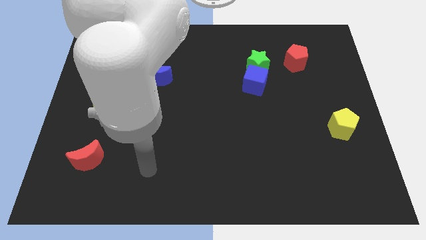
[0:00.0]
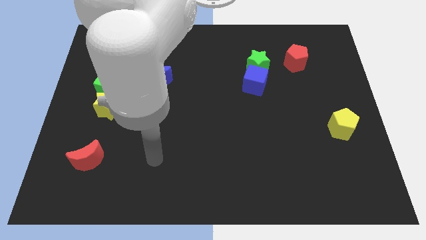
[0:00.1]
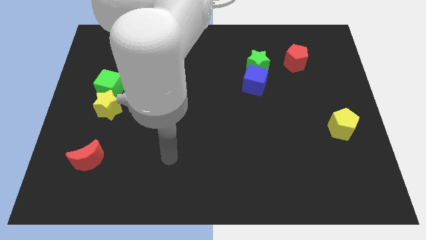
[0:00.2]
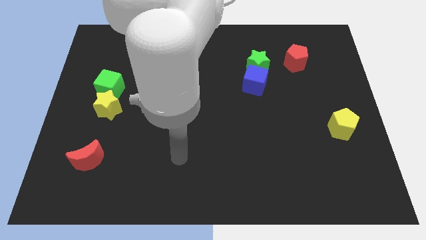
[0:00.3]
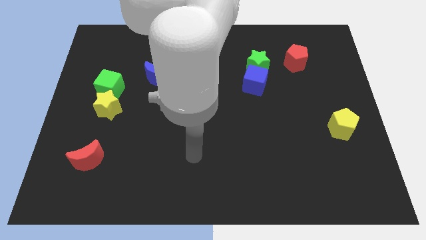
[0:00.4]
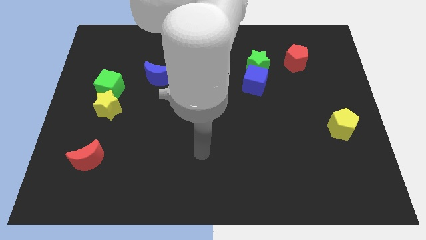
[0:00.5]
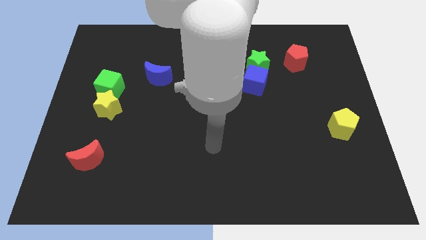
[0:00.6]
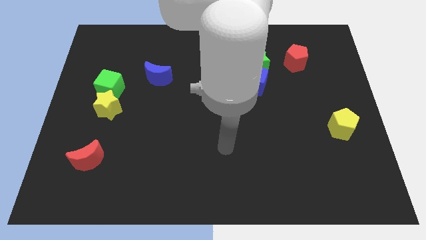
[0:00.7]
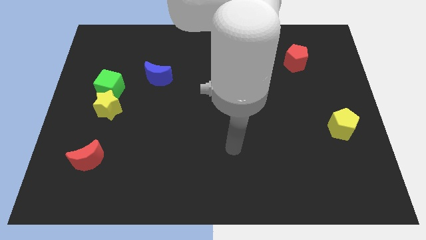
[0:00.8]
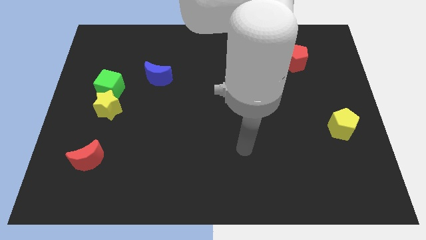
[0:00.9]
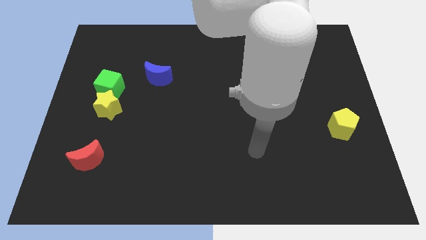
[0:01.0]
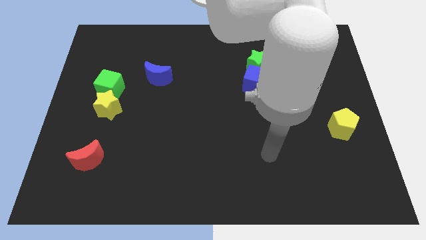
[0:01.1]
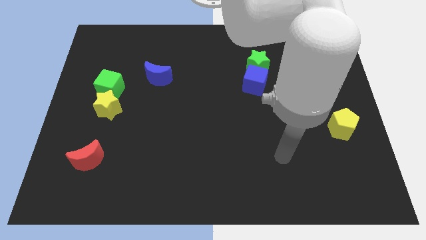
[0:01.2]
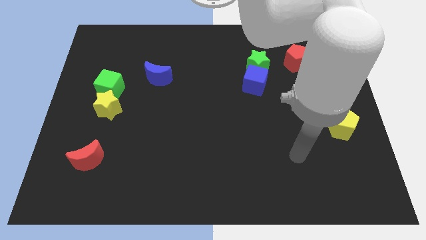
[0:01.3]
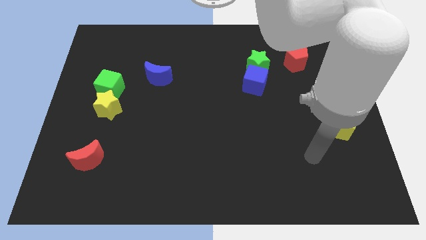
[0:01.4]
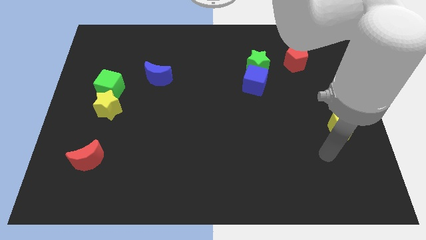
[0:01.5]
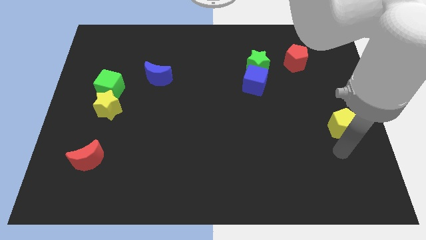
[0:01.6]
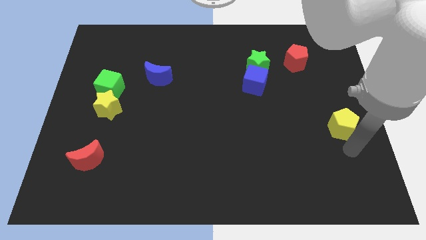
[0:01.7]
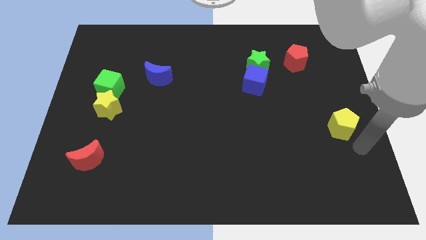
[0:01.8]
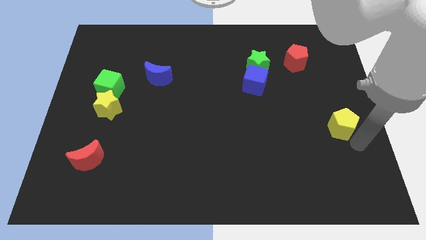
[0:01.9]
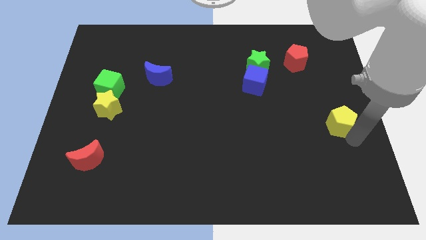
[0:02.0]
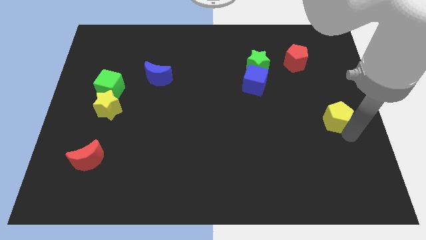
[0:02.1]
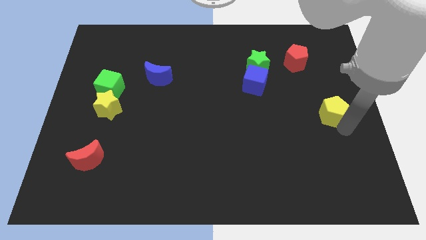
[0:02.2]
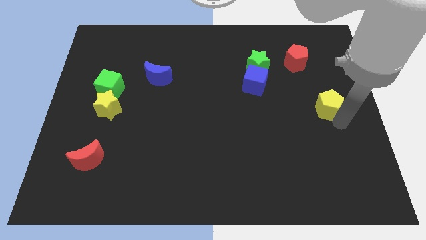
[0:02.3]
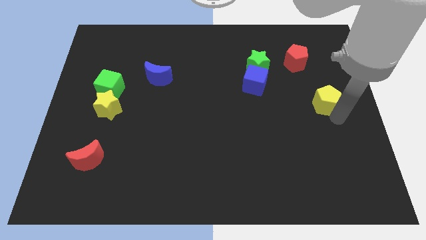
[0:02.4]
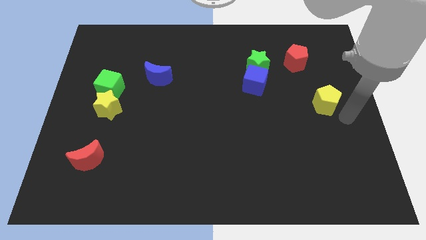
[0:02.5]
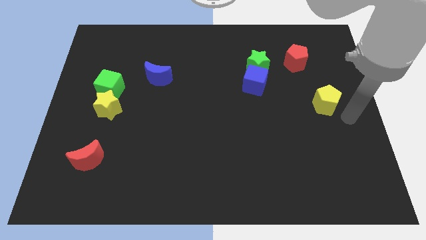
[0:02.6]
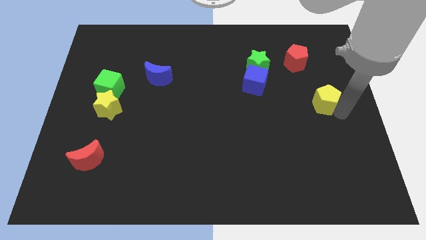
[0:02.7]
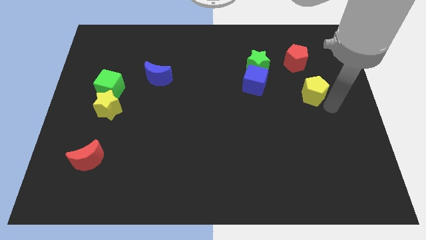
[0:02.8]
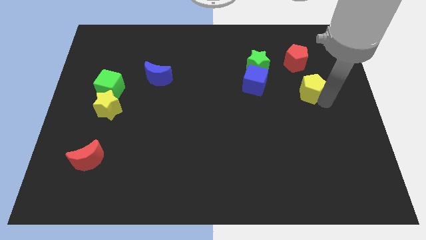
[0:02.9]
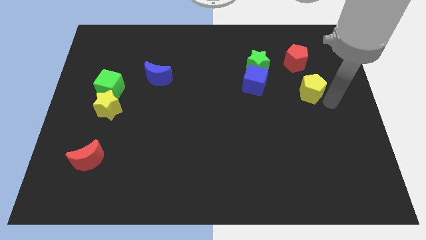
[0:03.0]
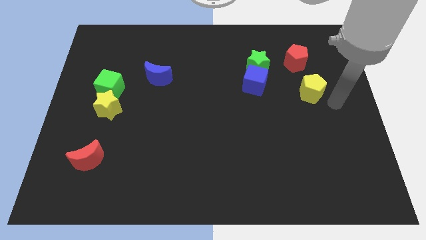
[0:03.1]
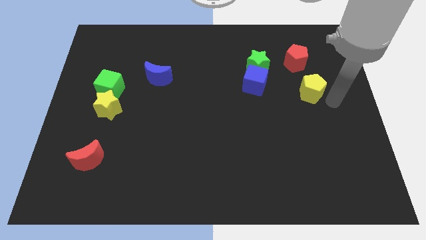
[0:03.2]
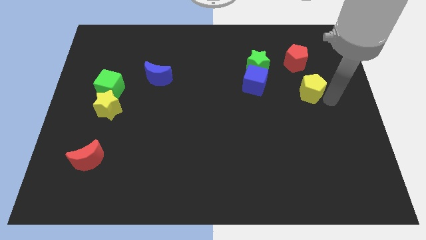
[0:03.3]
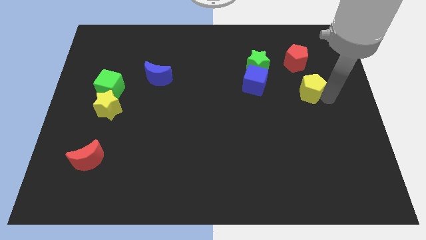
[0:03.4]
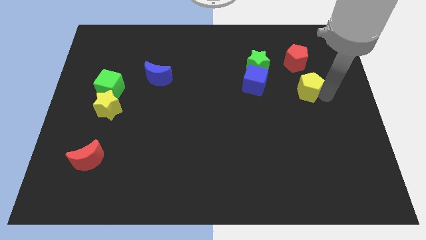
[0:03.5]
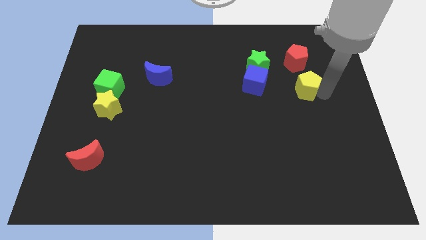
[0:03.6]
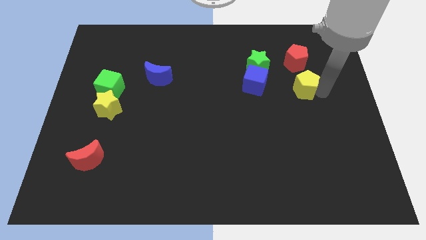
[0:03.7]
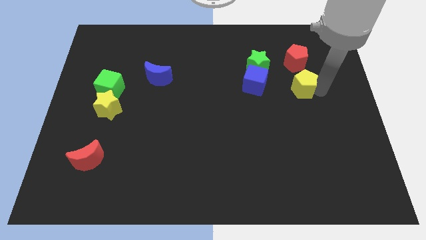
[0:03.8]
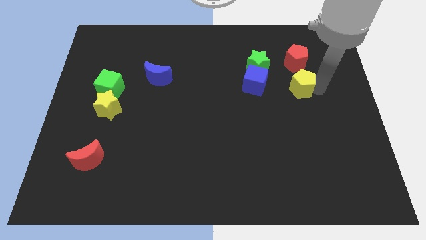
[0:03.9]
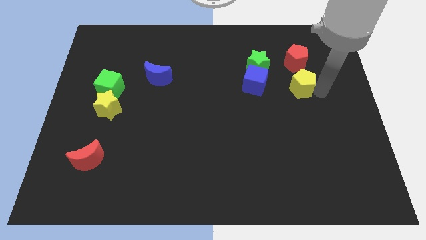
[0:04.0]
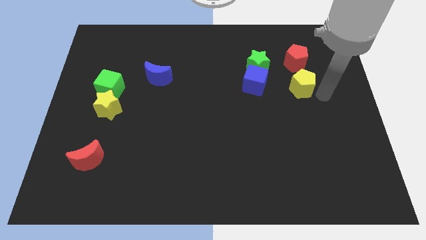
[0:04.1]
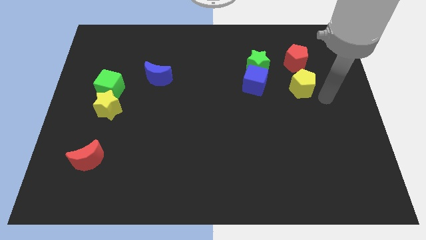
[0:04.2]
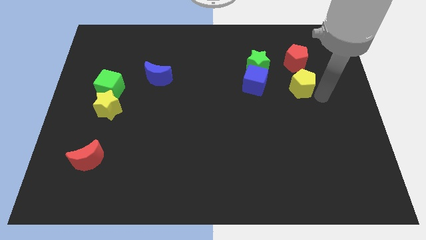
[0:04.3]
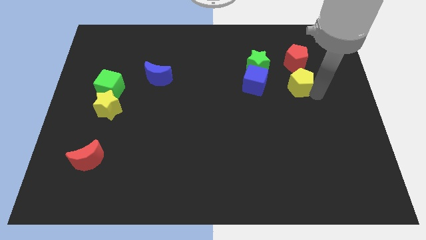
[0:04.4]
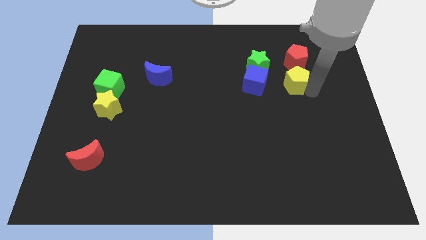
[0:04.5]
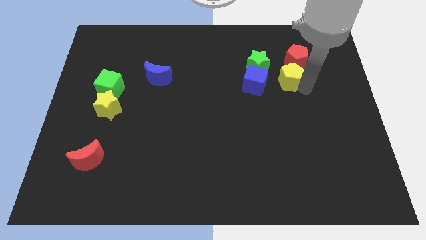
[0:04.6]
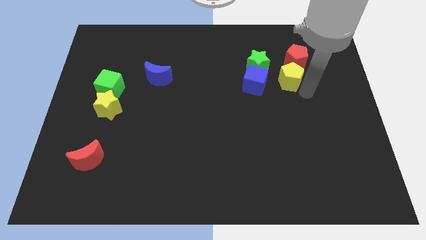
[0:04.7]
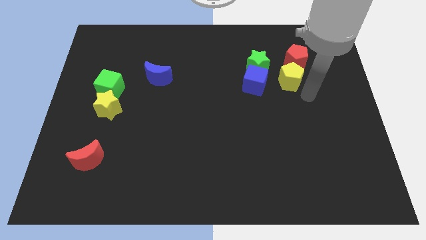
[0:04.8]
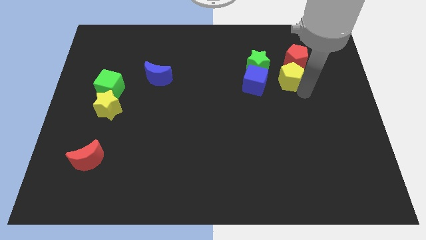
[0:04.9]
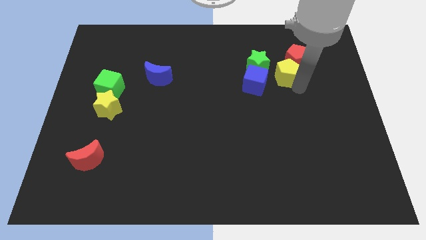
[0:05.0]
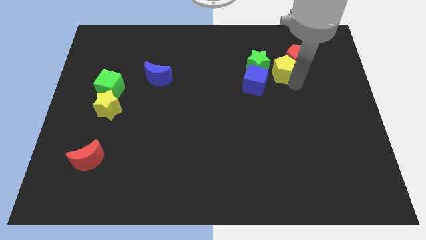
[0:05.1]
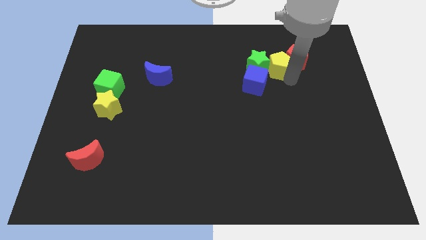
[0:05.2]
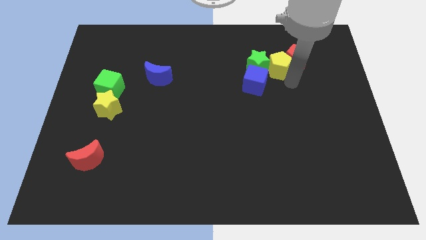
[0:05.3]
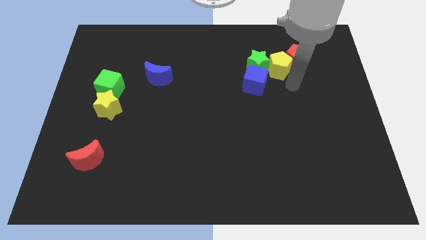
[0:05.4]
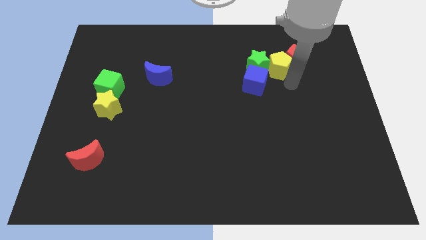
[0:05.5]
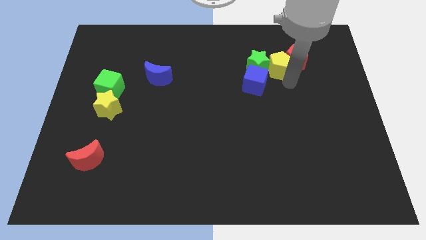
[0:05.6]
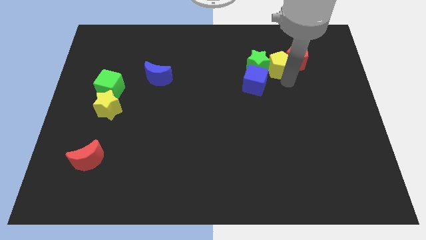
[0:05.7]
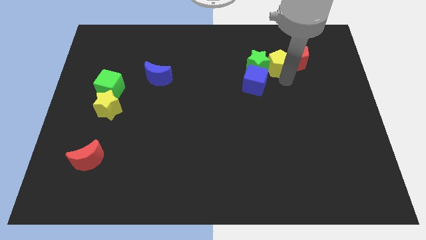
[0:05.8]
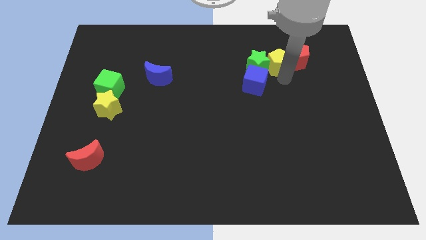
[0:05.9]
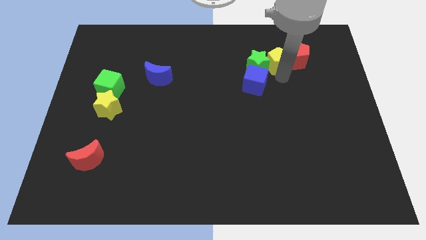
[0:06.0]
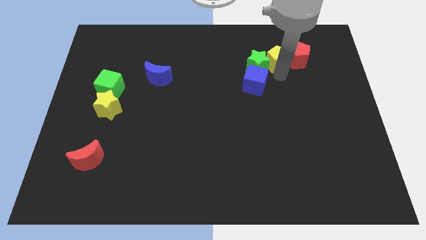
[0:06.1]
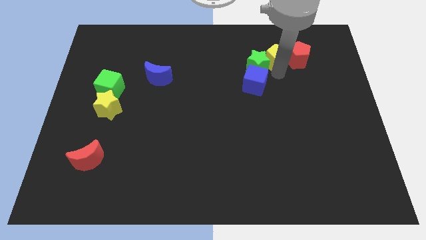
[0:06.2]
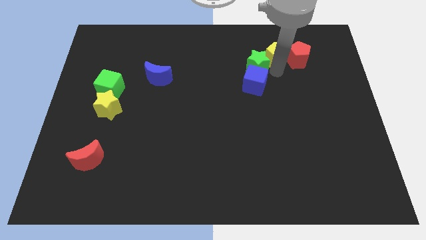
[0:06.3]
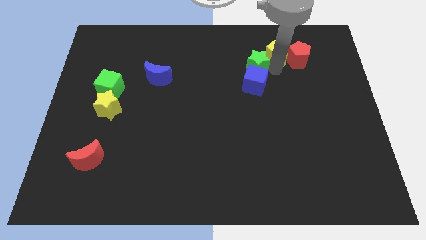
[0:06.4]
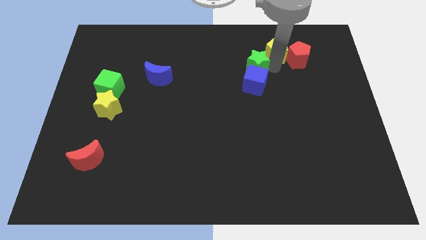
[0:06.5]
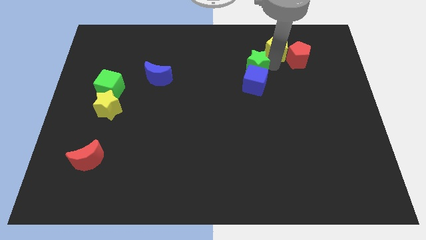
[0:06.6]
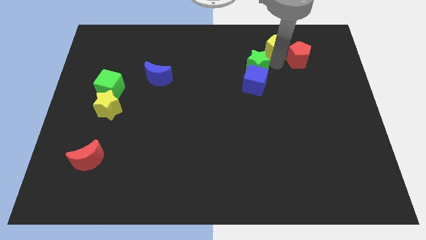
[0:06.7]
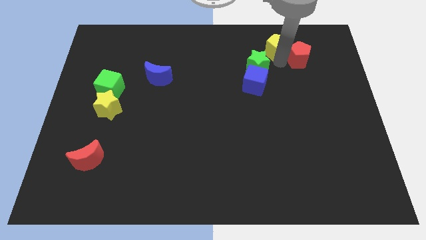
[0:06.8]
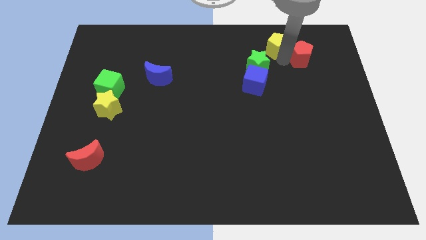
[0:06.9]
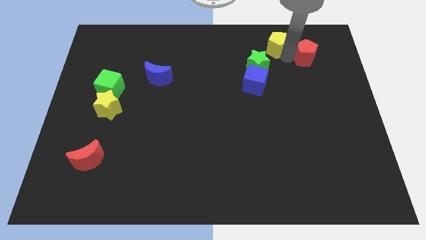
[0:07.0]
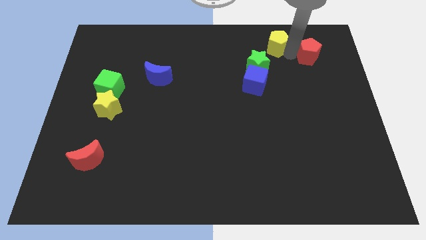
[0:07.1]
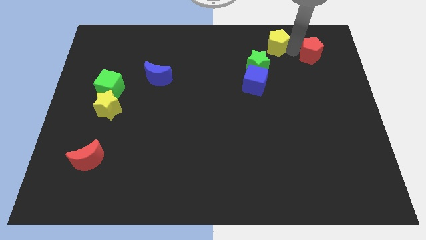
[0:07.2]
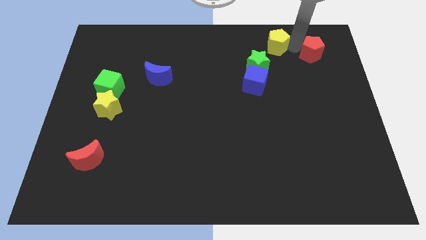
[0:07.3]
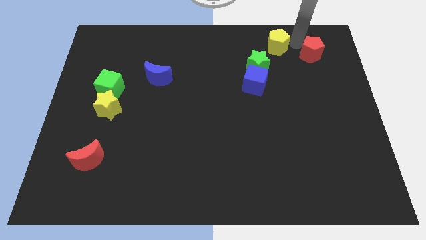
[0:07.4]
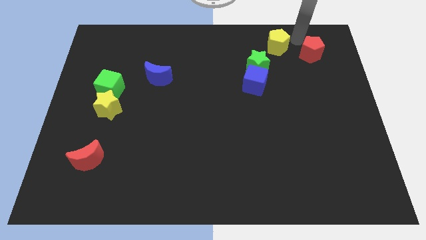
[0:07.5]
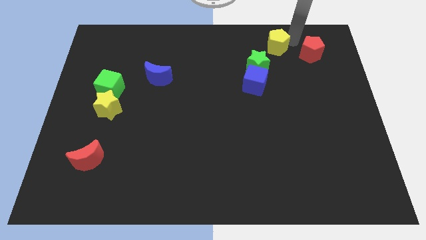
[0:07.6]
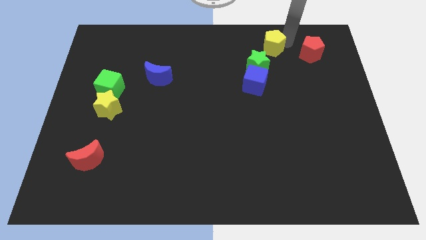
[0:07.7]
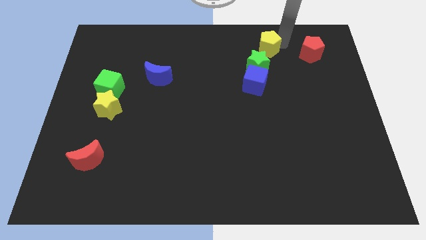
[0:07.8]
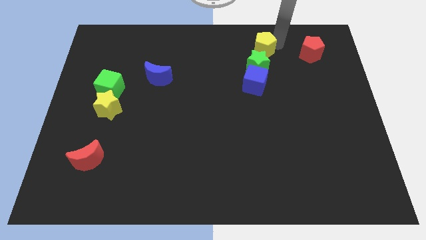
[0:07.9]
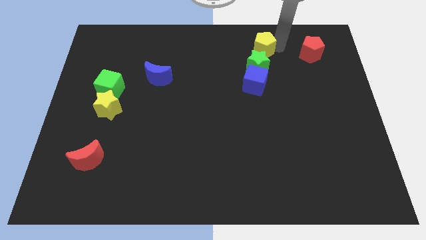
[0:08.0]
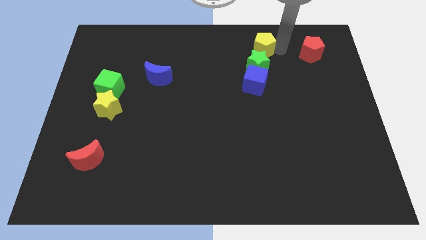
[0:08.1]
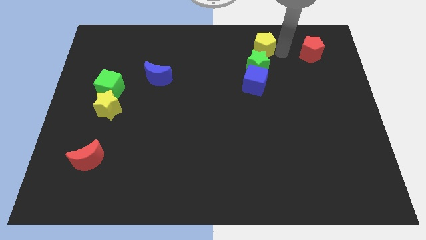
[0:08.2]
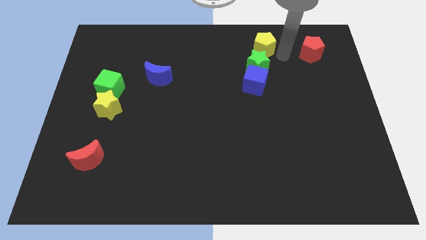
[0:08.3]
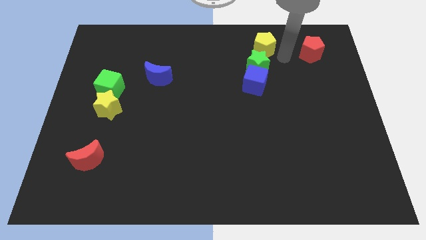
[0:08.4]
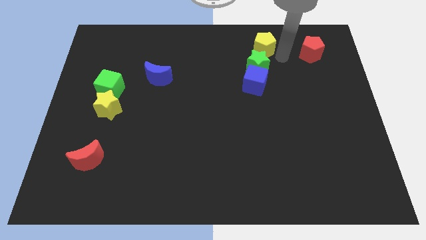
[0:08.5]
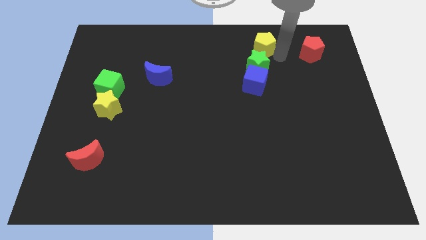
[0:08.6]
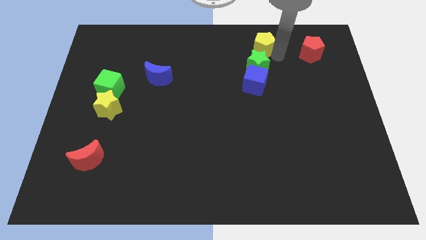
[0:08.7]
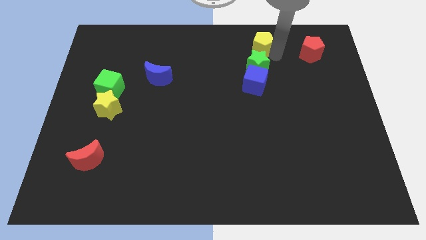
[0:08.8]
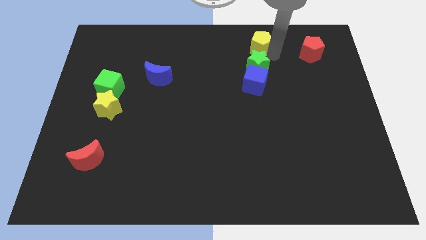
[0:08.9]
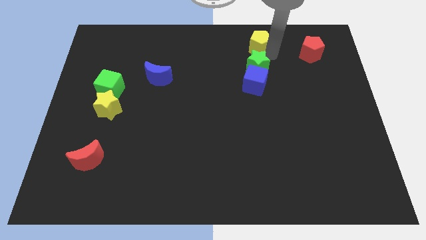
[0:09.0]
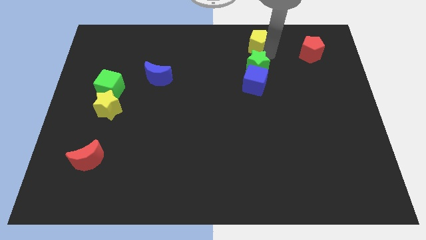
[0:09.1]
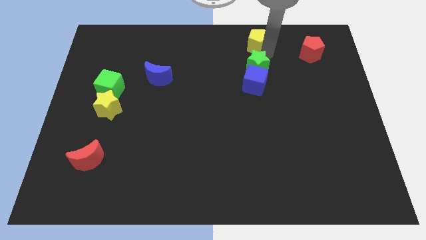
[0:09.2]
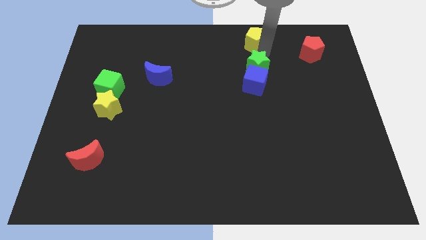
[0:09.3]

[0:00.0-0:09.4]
push the yellow pentagon to the top
